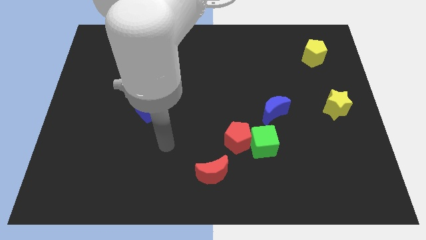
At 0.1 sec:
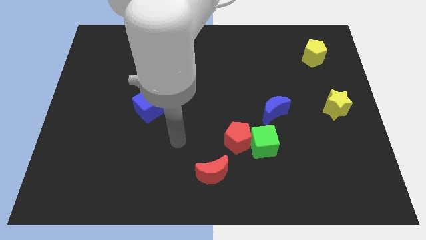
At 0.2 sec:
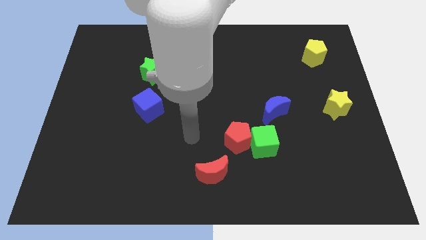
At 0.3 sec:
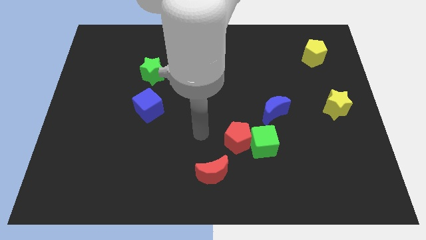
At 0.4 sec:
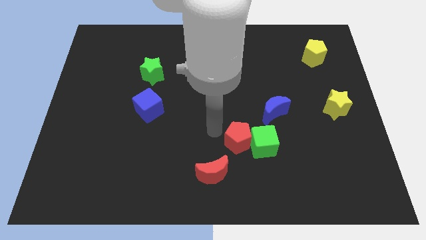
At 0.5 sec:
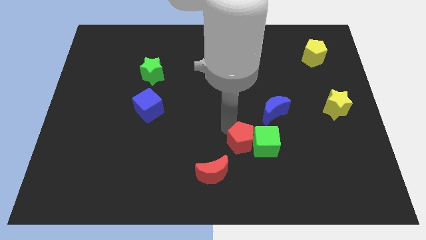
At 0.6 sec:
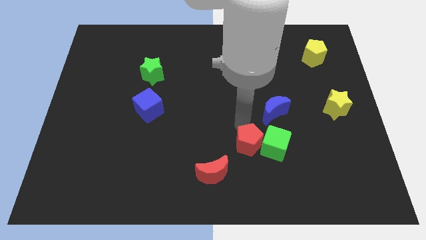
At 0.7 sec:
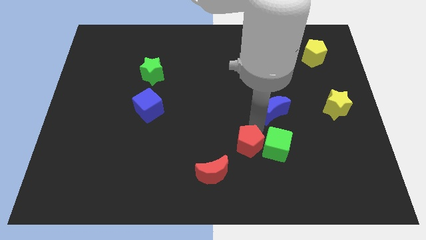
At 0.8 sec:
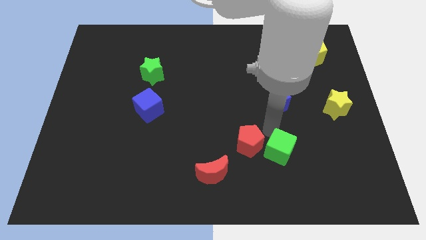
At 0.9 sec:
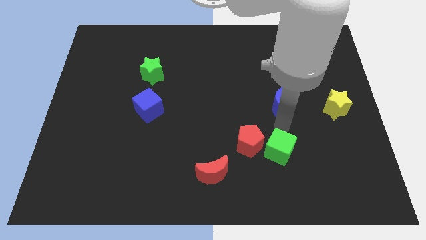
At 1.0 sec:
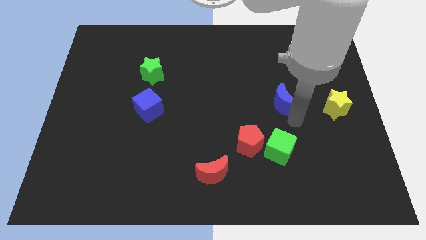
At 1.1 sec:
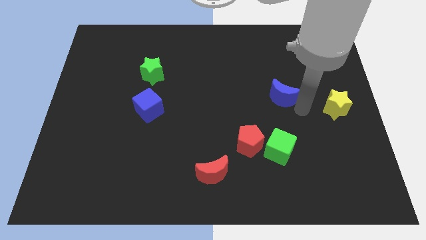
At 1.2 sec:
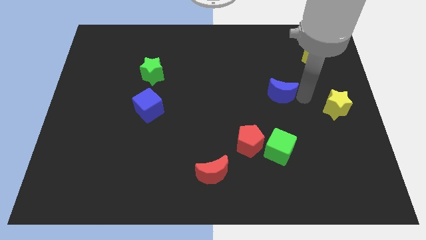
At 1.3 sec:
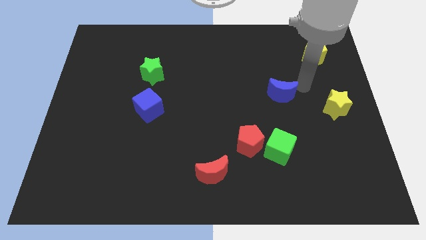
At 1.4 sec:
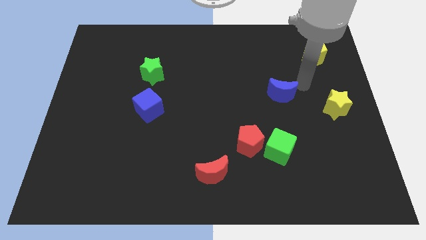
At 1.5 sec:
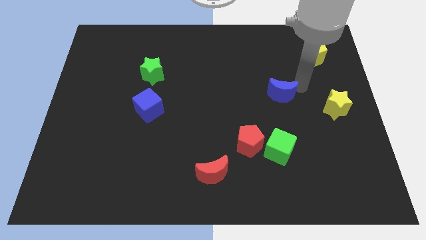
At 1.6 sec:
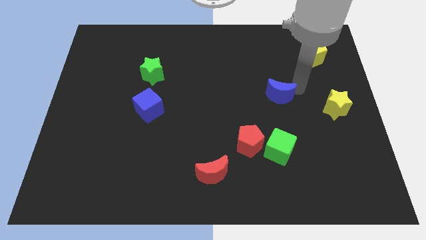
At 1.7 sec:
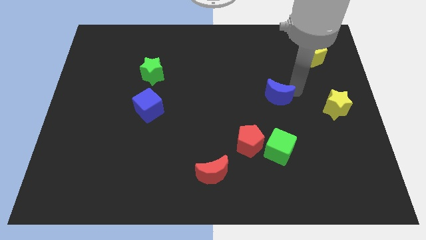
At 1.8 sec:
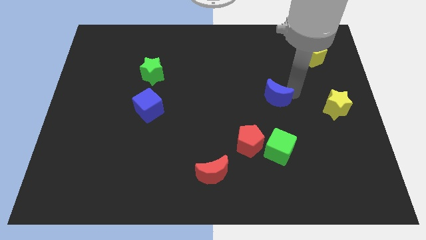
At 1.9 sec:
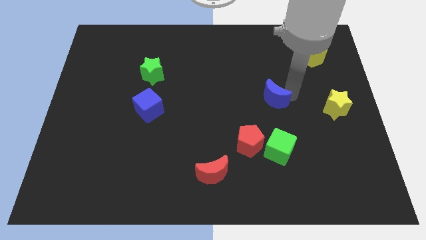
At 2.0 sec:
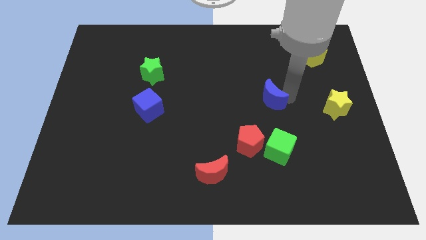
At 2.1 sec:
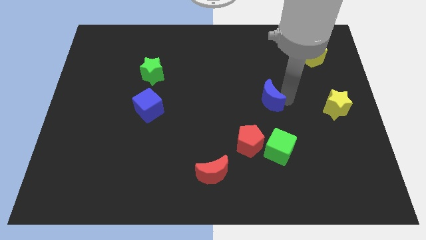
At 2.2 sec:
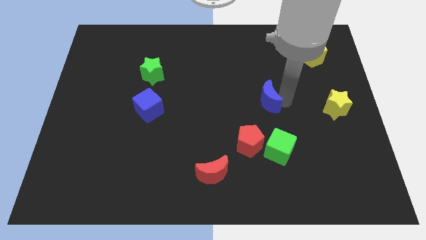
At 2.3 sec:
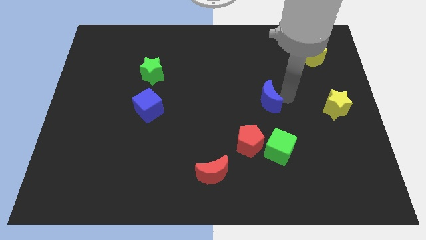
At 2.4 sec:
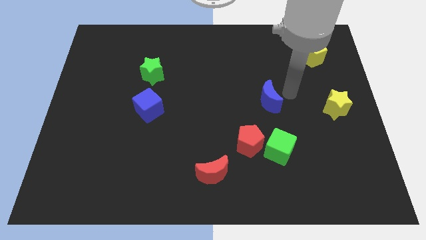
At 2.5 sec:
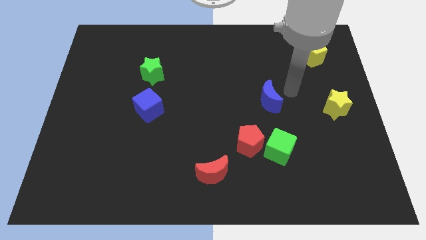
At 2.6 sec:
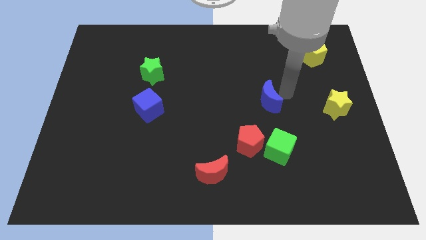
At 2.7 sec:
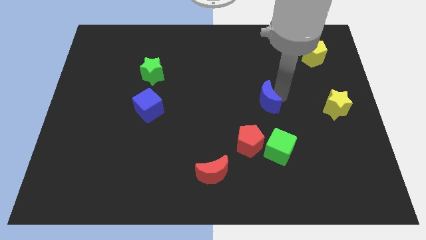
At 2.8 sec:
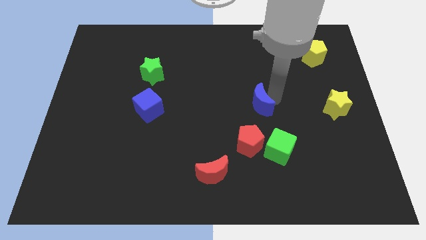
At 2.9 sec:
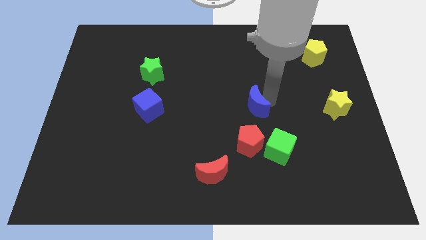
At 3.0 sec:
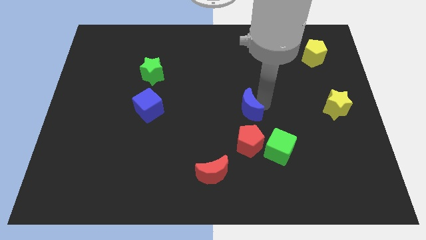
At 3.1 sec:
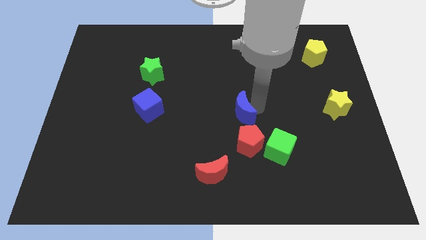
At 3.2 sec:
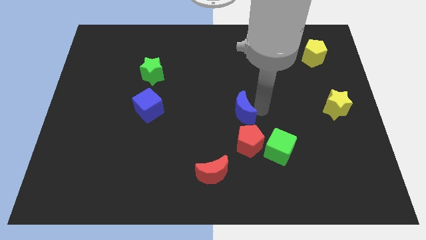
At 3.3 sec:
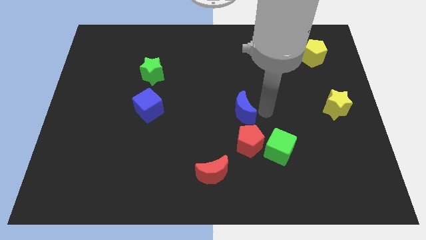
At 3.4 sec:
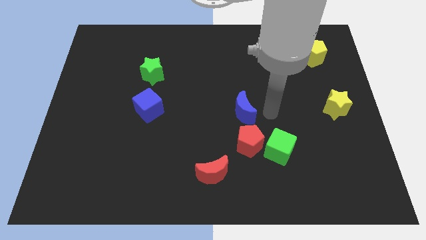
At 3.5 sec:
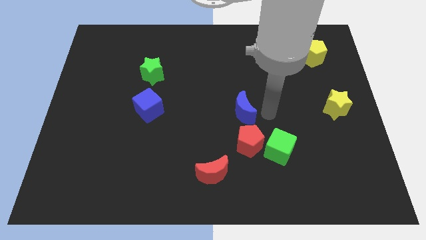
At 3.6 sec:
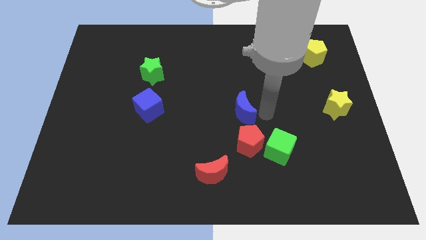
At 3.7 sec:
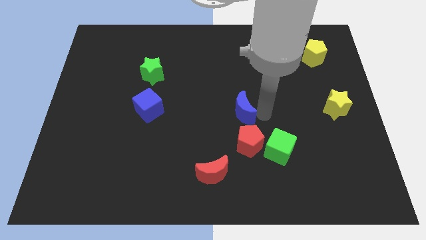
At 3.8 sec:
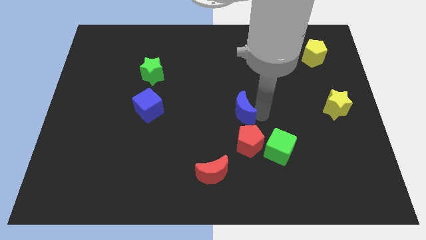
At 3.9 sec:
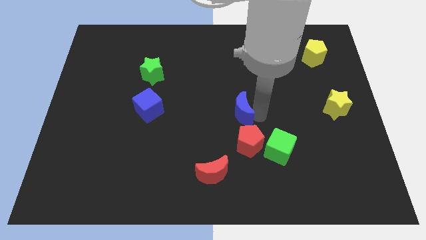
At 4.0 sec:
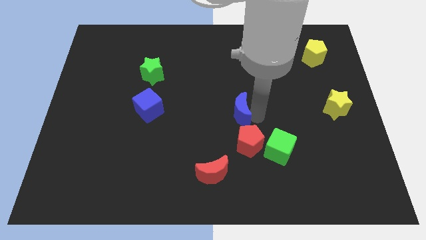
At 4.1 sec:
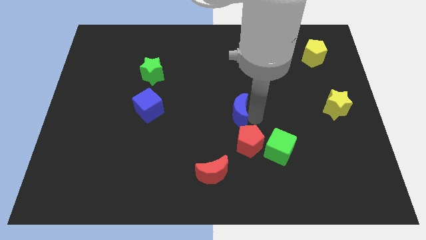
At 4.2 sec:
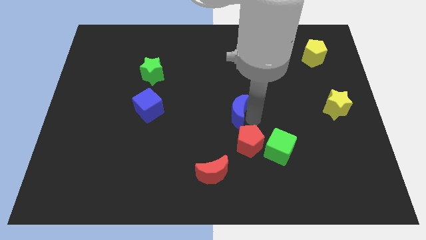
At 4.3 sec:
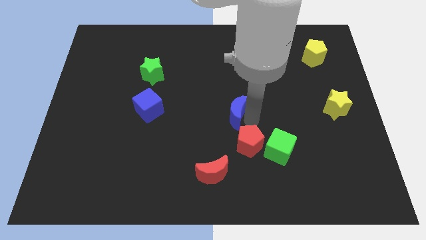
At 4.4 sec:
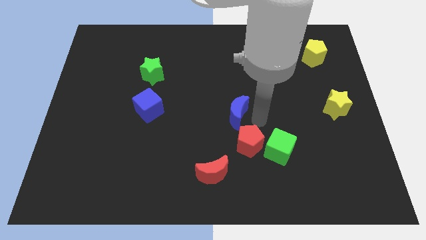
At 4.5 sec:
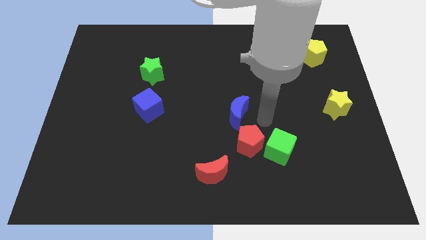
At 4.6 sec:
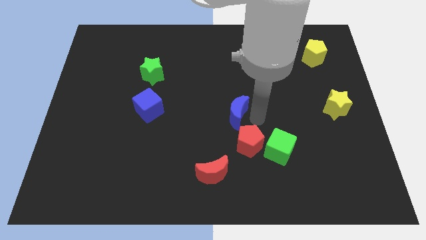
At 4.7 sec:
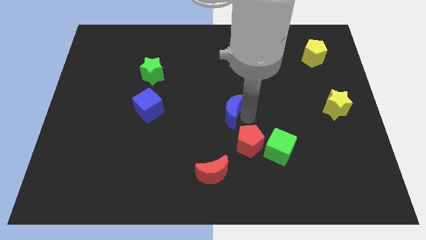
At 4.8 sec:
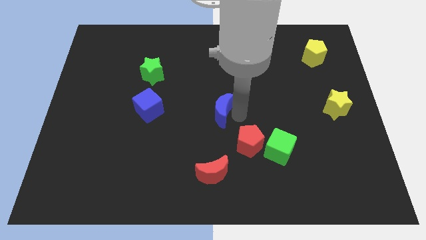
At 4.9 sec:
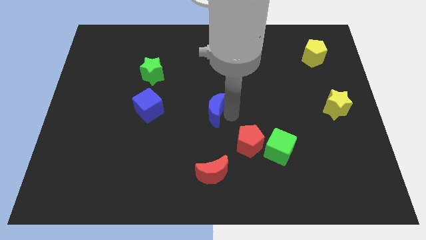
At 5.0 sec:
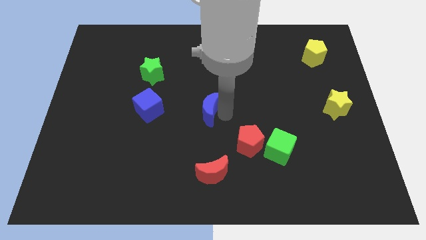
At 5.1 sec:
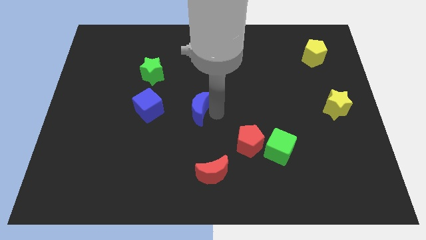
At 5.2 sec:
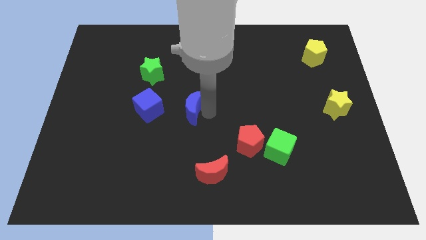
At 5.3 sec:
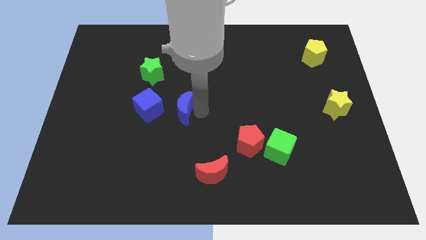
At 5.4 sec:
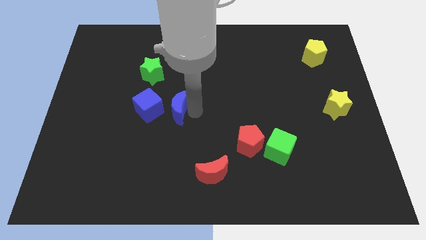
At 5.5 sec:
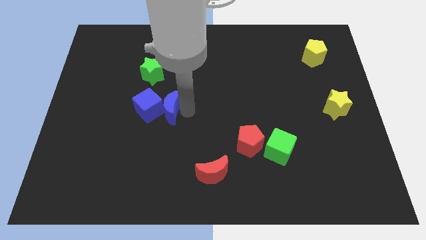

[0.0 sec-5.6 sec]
push the blue moon towards the blue cube

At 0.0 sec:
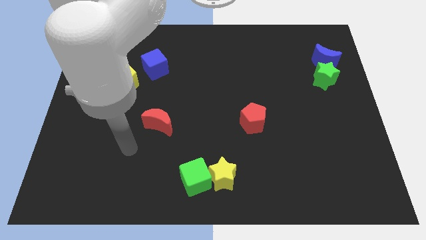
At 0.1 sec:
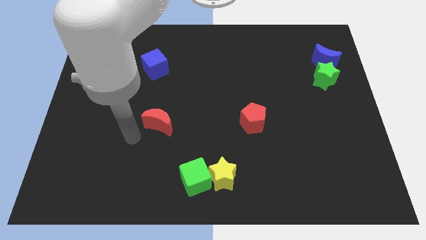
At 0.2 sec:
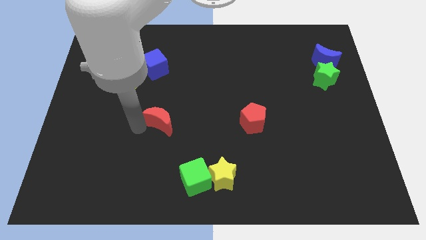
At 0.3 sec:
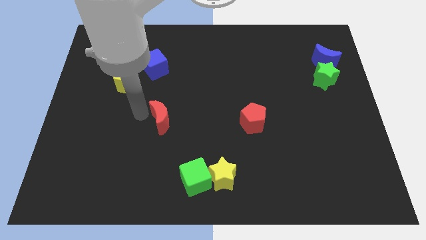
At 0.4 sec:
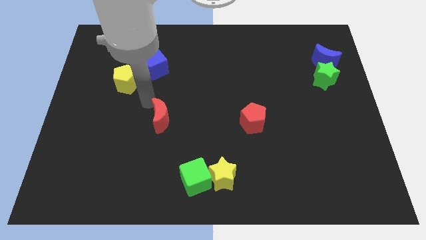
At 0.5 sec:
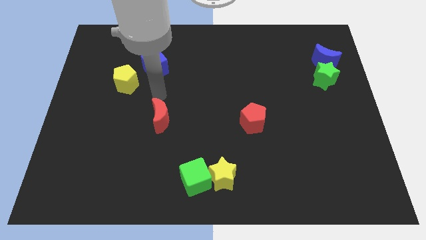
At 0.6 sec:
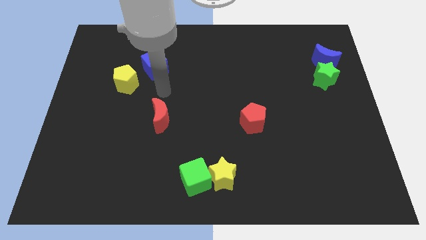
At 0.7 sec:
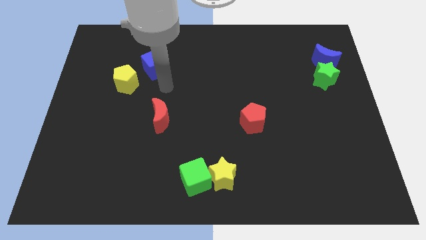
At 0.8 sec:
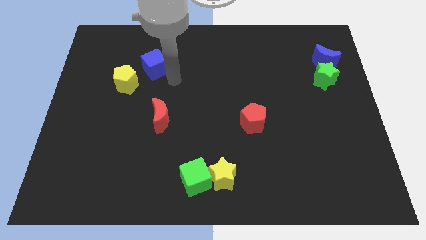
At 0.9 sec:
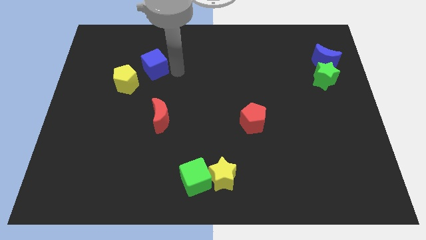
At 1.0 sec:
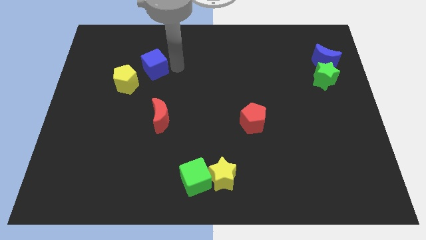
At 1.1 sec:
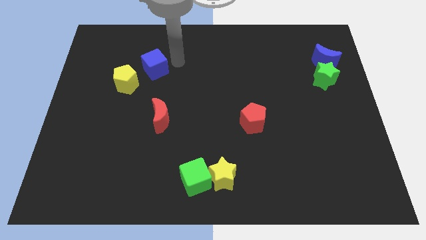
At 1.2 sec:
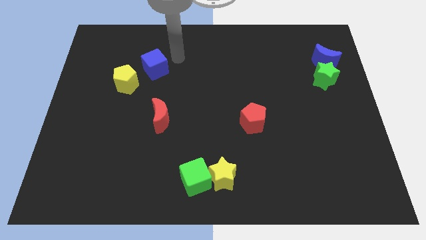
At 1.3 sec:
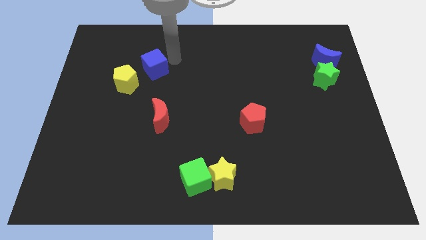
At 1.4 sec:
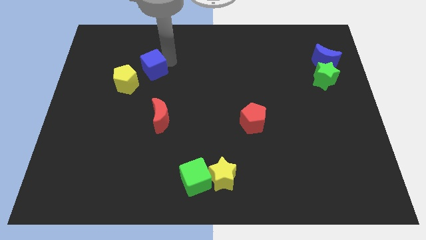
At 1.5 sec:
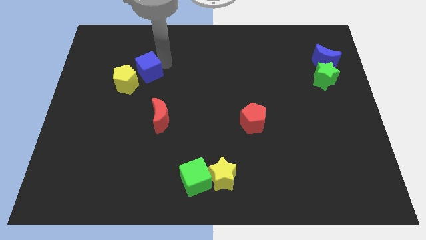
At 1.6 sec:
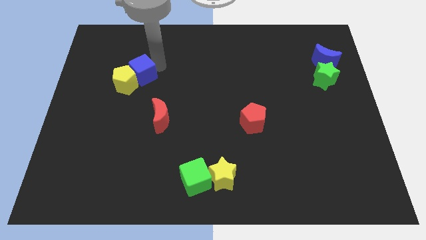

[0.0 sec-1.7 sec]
put the blue cube towards the yellow pentagon
